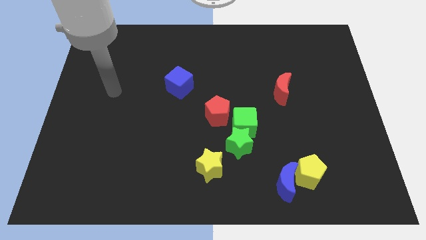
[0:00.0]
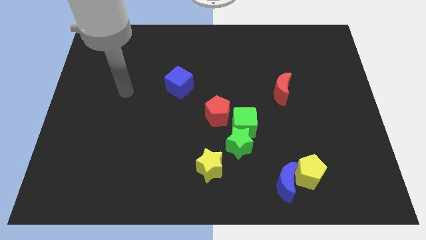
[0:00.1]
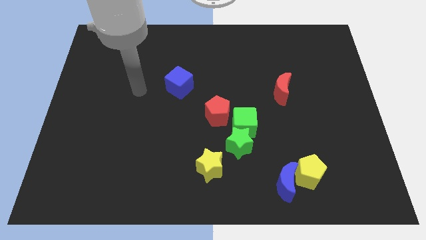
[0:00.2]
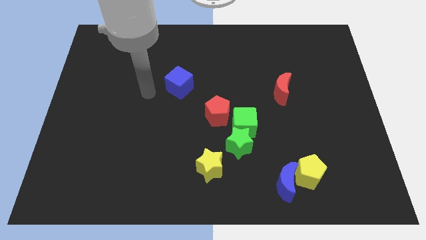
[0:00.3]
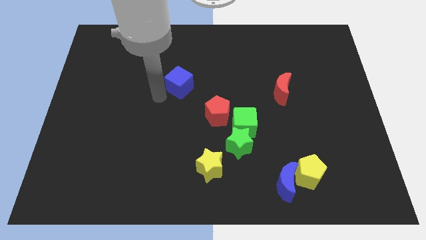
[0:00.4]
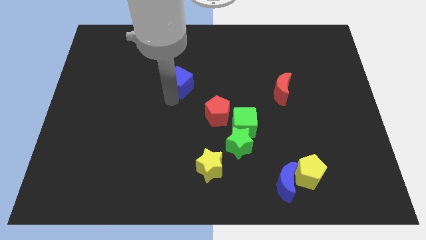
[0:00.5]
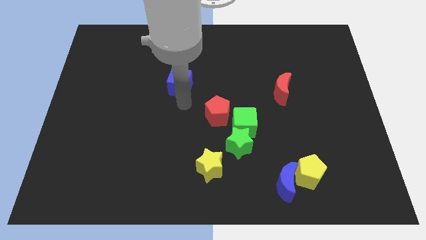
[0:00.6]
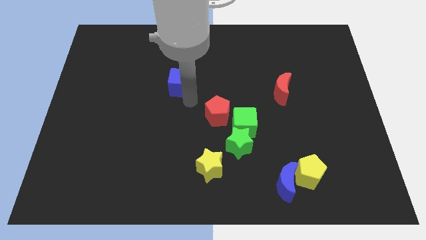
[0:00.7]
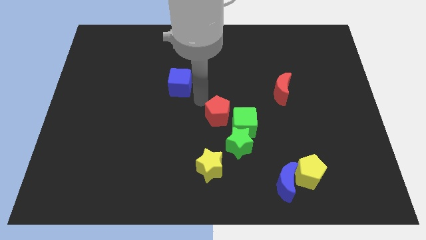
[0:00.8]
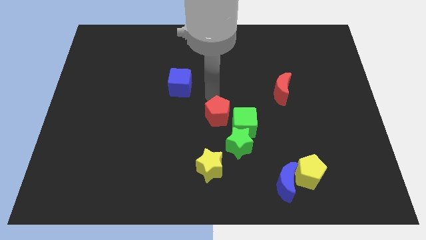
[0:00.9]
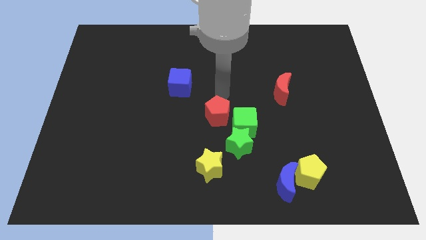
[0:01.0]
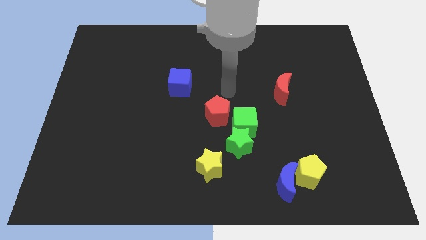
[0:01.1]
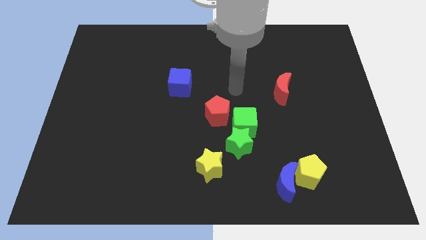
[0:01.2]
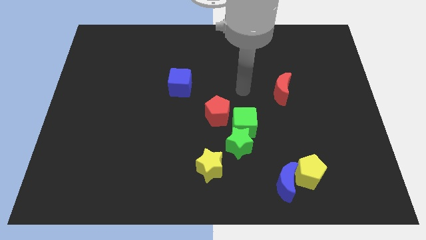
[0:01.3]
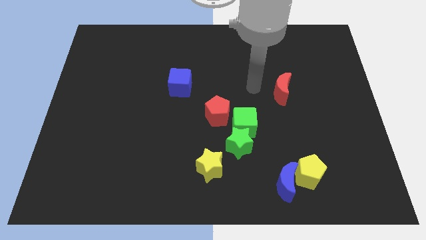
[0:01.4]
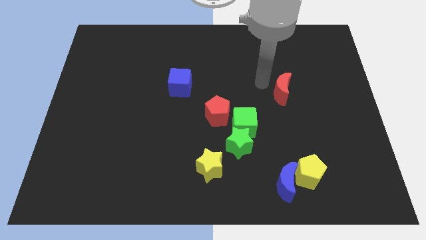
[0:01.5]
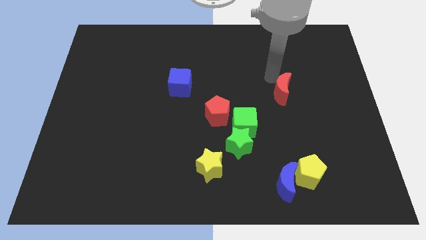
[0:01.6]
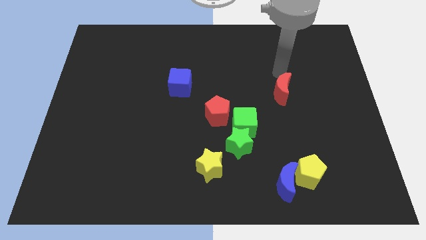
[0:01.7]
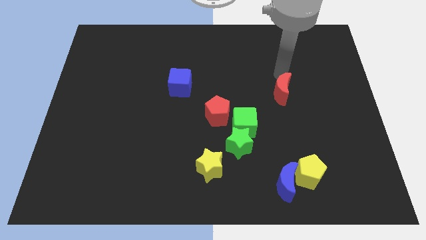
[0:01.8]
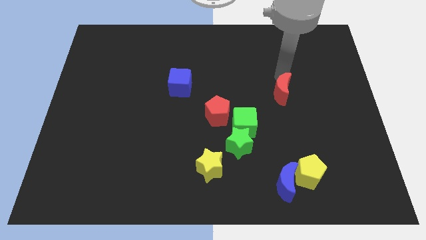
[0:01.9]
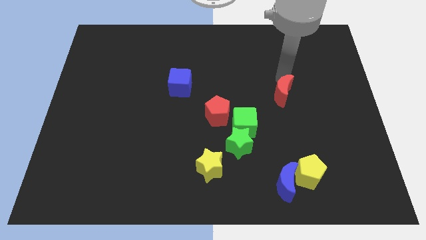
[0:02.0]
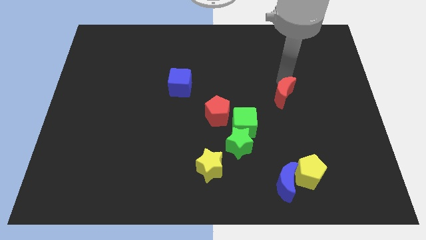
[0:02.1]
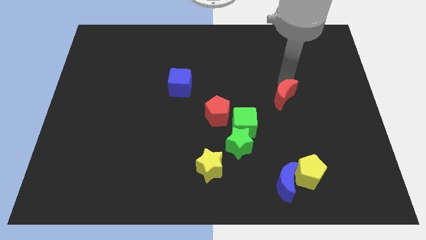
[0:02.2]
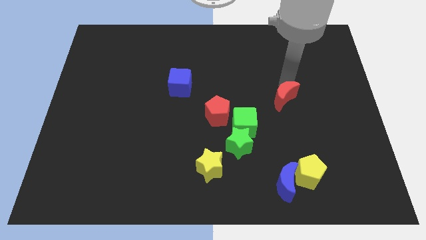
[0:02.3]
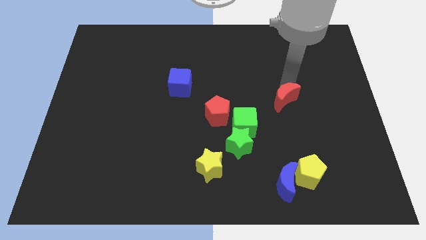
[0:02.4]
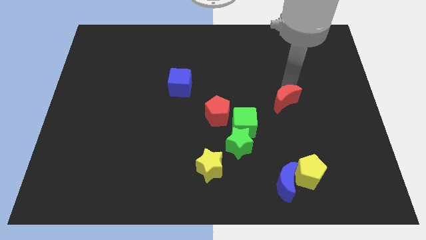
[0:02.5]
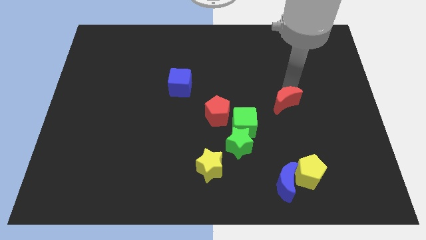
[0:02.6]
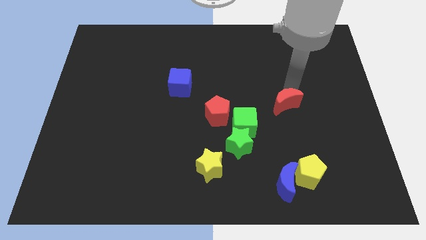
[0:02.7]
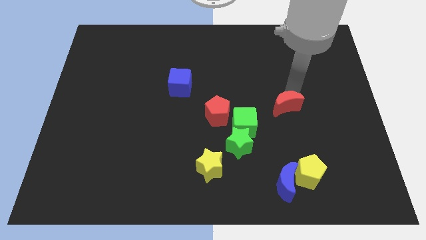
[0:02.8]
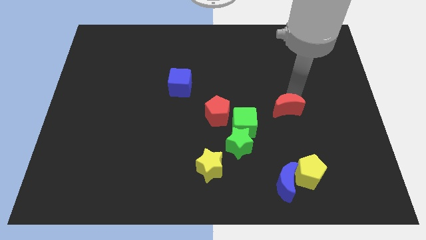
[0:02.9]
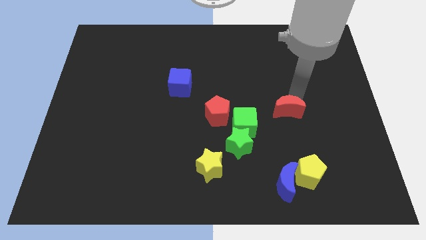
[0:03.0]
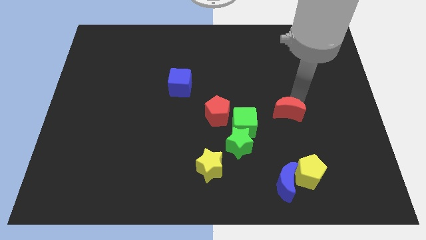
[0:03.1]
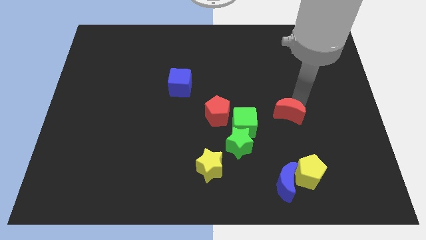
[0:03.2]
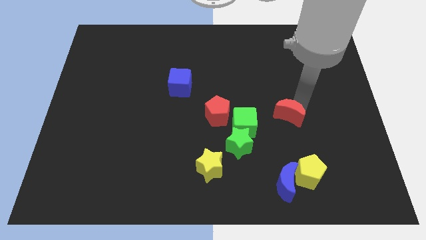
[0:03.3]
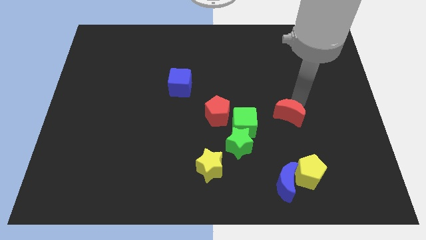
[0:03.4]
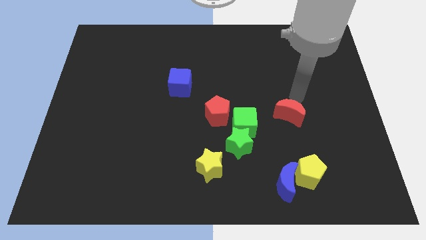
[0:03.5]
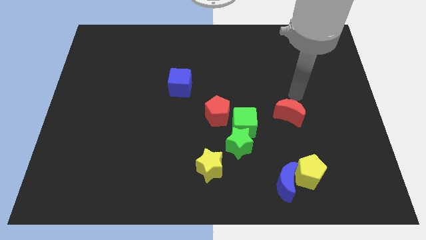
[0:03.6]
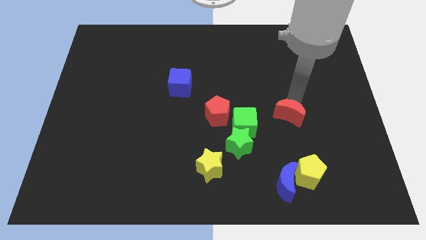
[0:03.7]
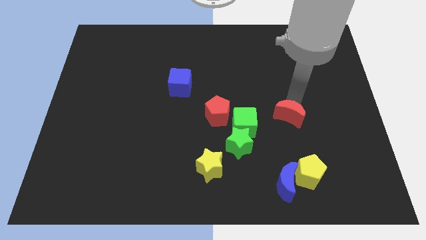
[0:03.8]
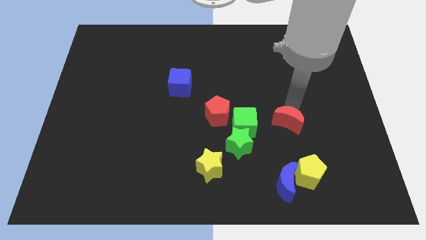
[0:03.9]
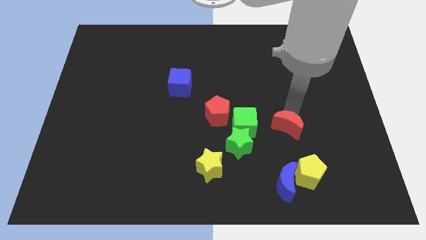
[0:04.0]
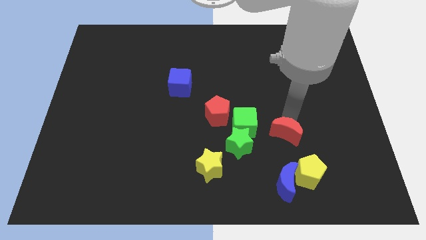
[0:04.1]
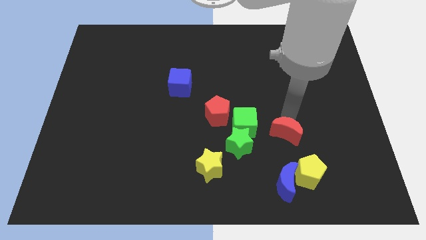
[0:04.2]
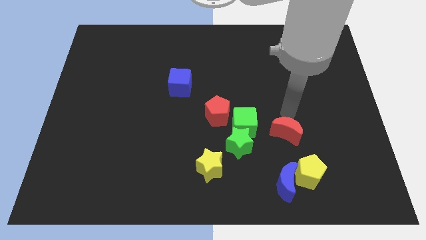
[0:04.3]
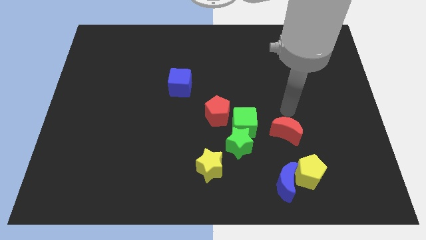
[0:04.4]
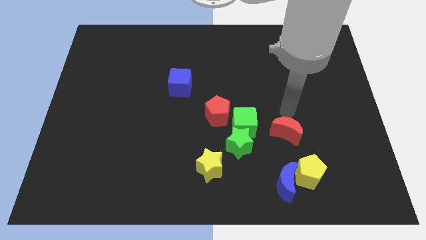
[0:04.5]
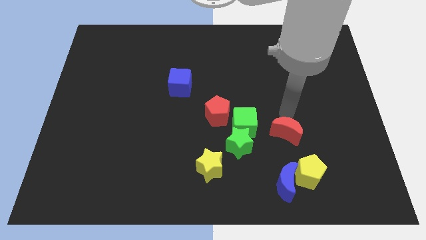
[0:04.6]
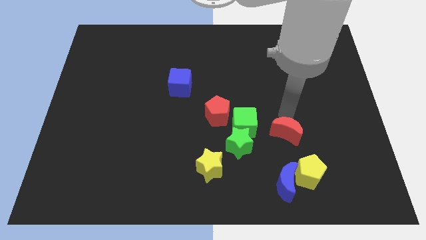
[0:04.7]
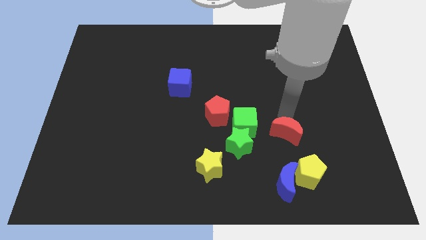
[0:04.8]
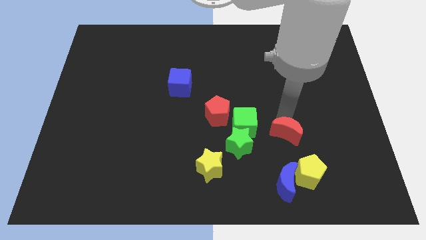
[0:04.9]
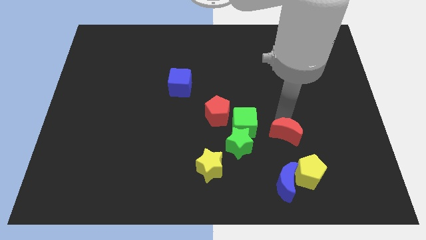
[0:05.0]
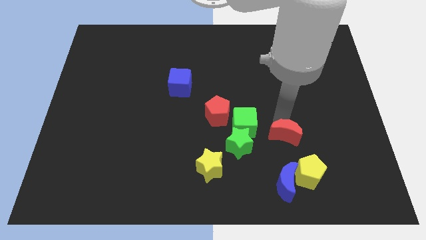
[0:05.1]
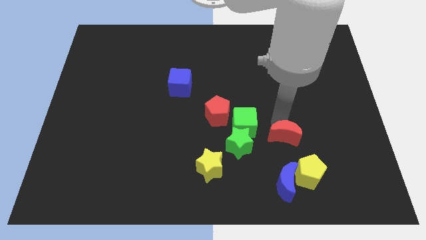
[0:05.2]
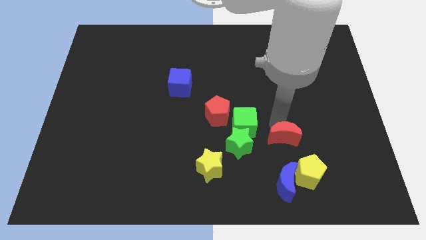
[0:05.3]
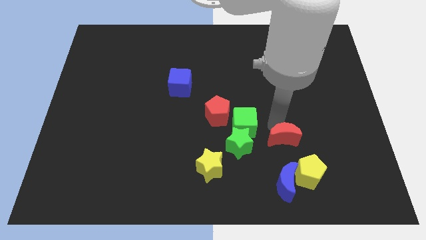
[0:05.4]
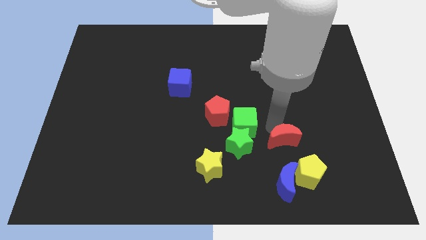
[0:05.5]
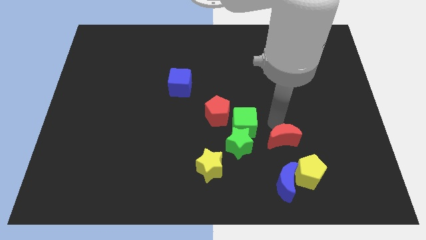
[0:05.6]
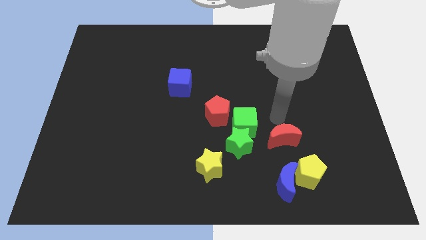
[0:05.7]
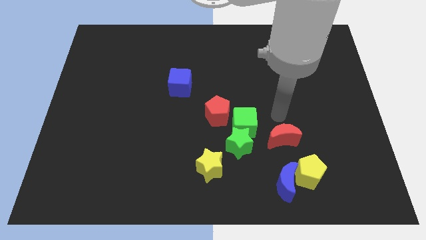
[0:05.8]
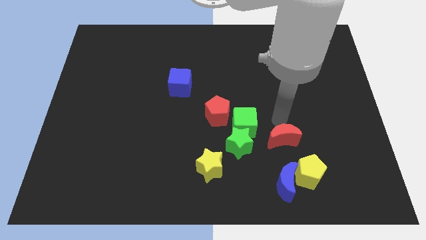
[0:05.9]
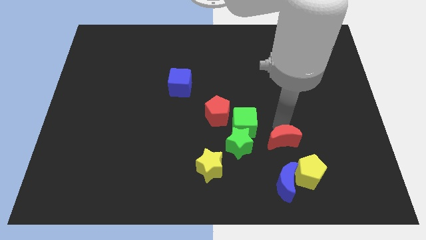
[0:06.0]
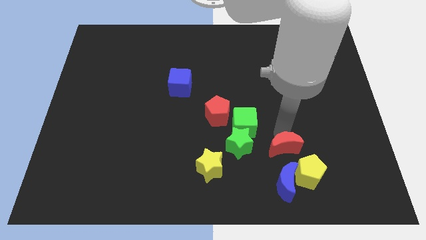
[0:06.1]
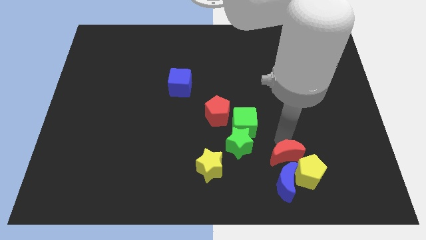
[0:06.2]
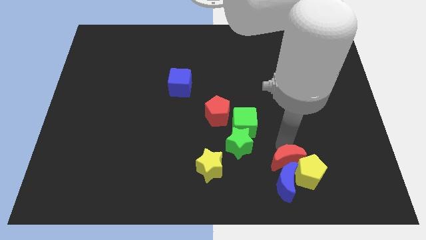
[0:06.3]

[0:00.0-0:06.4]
move the red moon close to the blue moon
